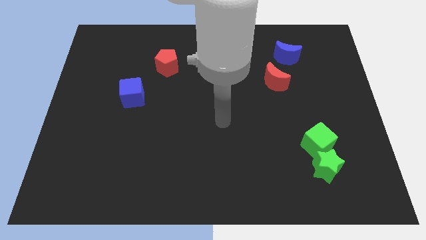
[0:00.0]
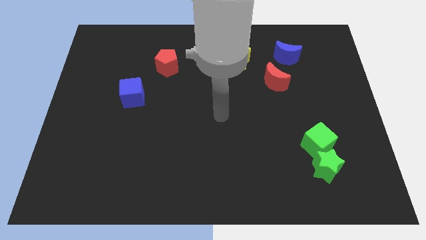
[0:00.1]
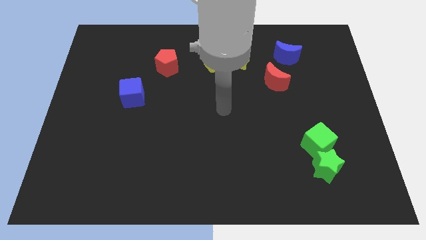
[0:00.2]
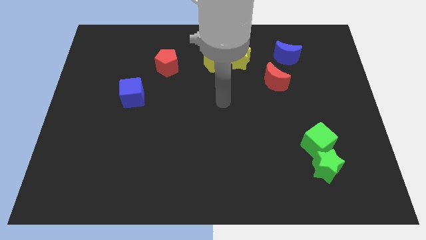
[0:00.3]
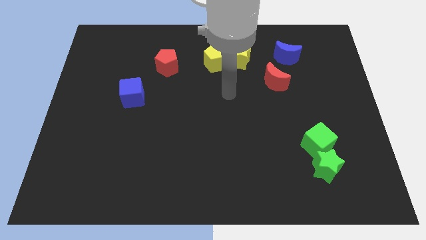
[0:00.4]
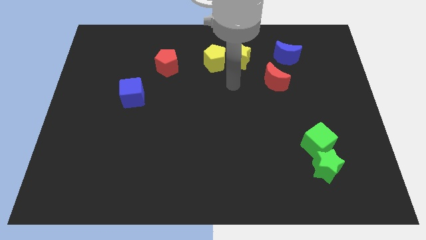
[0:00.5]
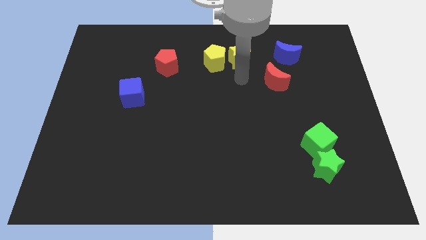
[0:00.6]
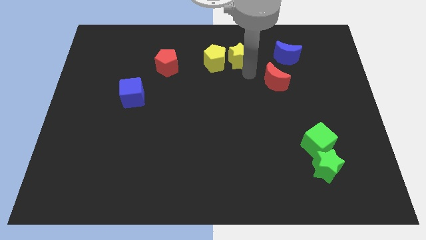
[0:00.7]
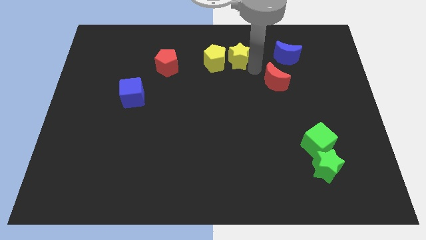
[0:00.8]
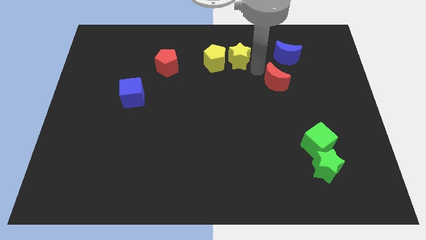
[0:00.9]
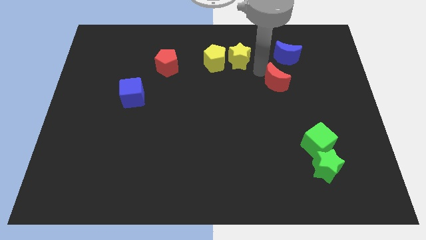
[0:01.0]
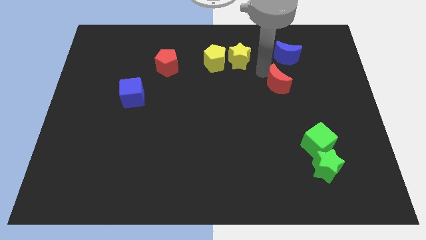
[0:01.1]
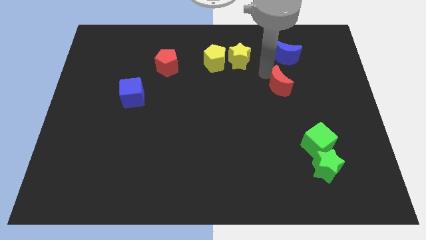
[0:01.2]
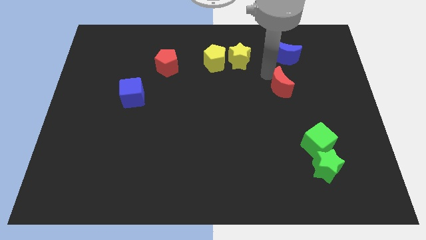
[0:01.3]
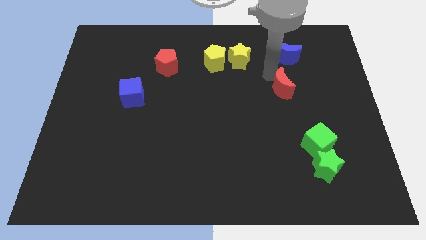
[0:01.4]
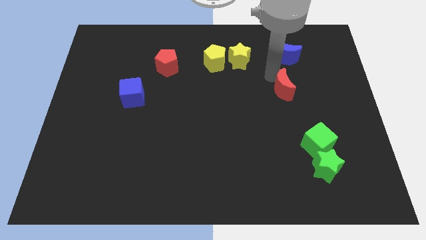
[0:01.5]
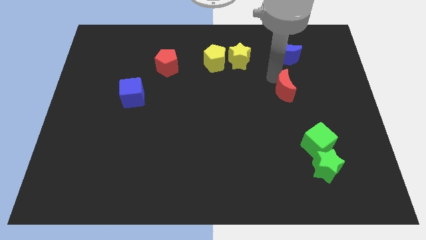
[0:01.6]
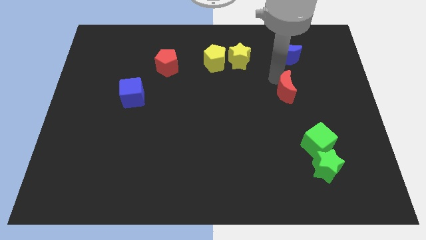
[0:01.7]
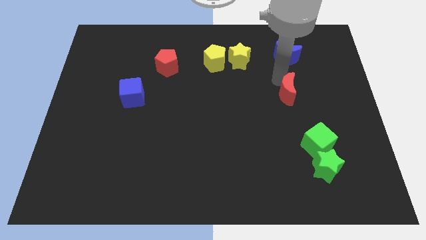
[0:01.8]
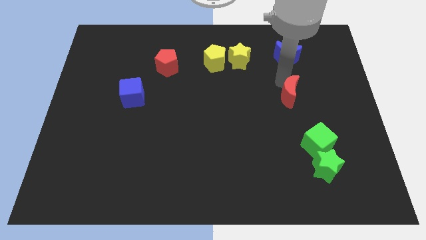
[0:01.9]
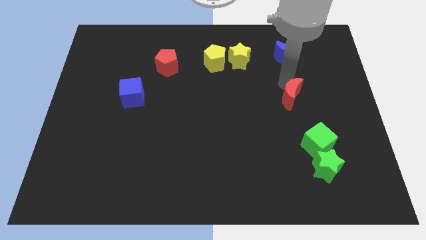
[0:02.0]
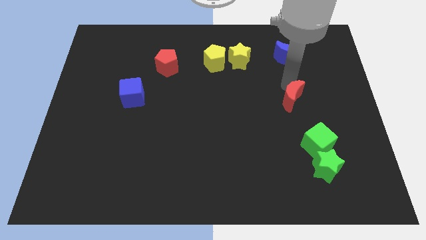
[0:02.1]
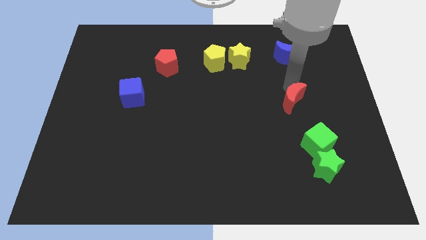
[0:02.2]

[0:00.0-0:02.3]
slide the red moon slightly diagonally down and right

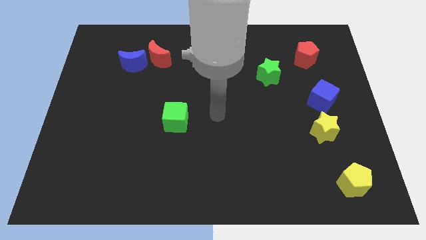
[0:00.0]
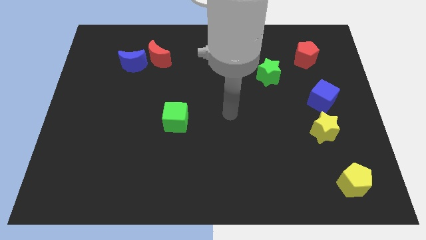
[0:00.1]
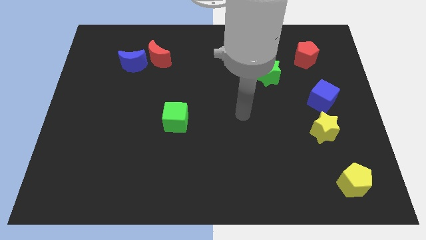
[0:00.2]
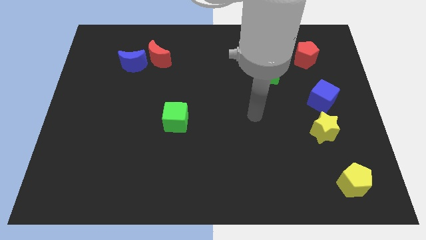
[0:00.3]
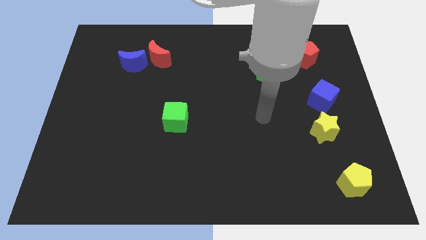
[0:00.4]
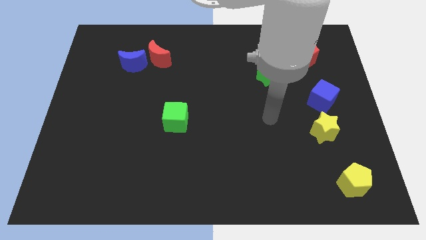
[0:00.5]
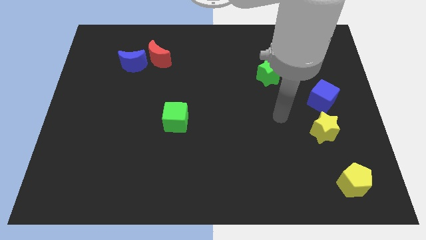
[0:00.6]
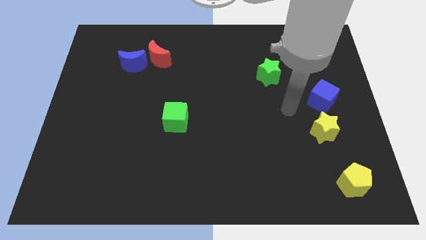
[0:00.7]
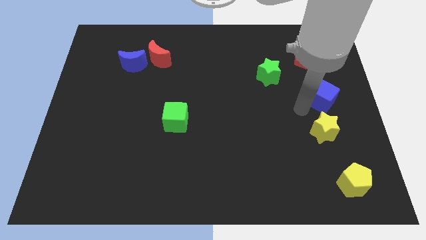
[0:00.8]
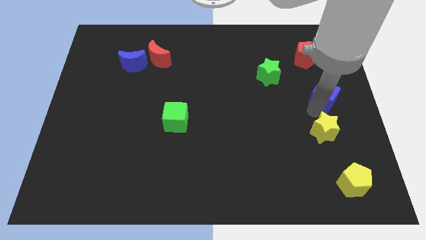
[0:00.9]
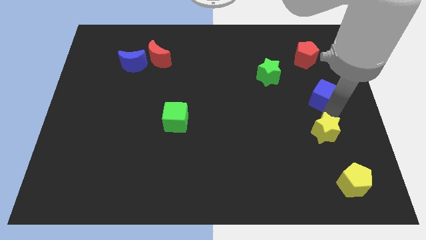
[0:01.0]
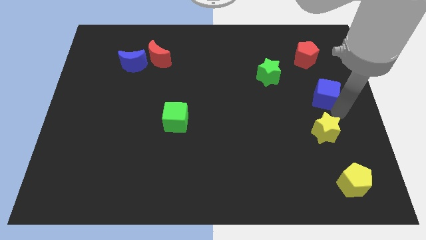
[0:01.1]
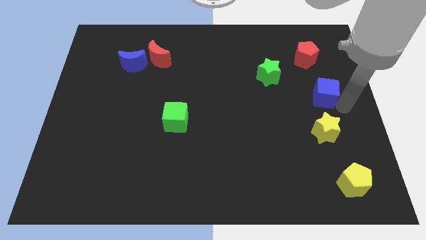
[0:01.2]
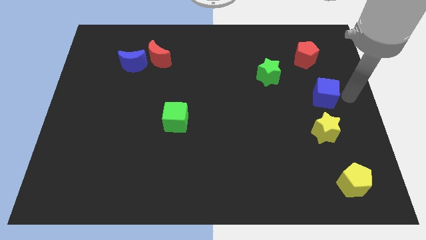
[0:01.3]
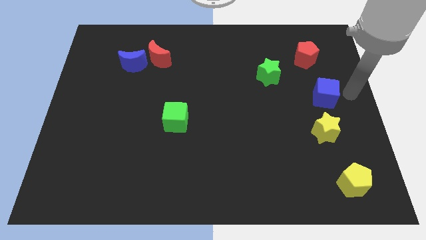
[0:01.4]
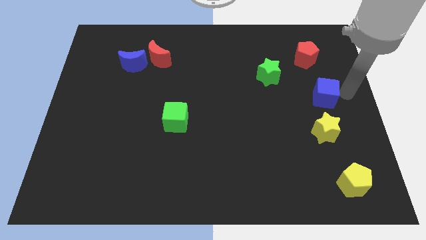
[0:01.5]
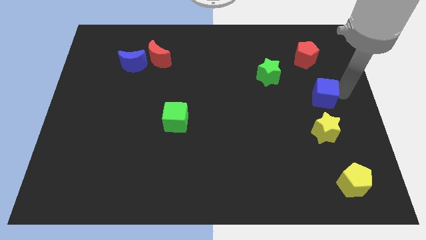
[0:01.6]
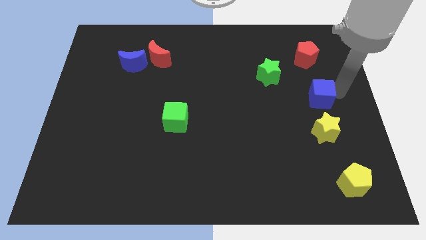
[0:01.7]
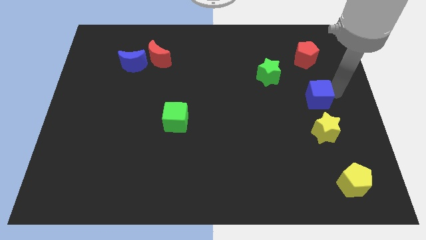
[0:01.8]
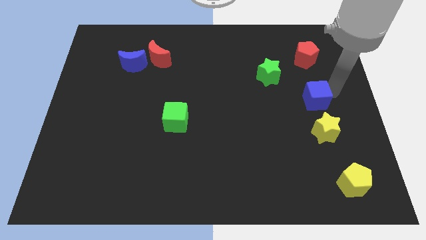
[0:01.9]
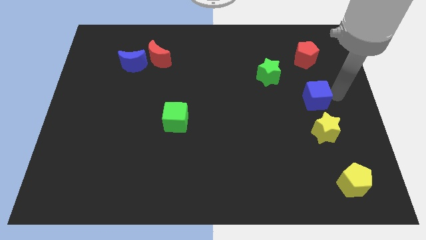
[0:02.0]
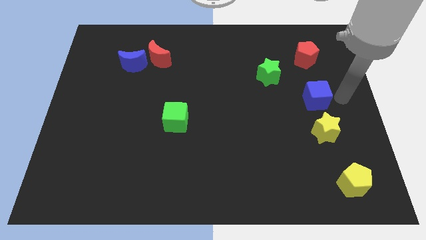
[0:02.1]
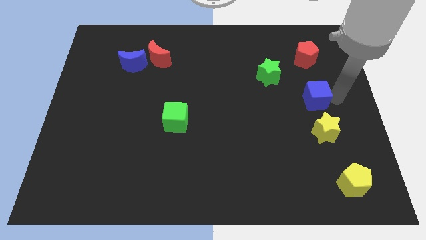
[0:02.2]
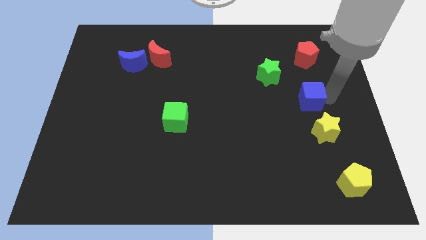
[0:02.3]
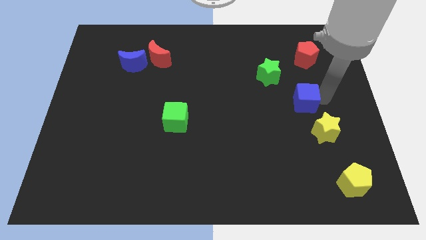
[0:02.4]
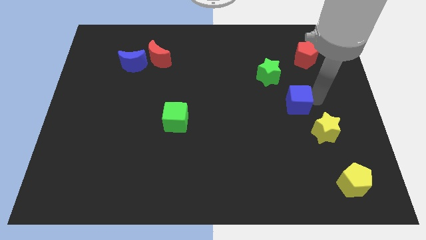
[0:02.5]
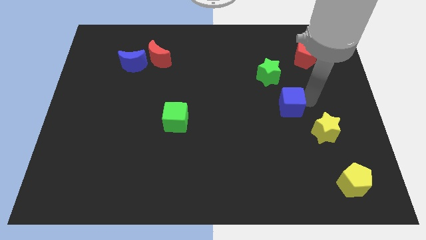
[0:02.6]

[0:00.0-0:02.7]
push the blue cube a bit to the left

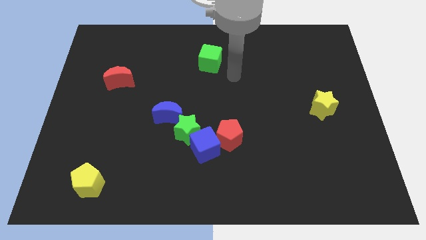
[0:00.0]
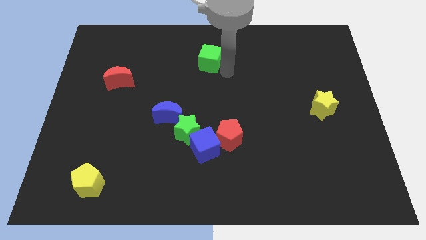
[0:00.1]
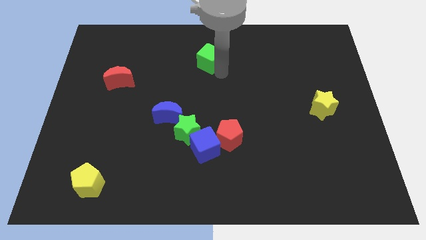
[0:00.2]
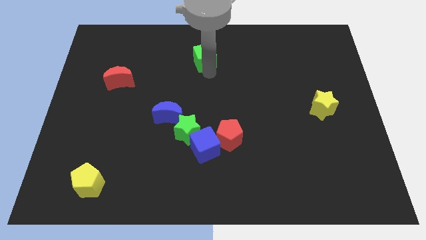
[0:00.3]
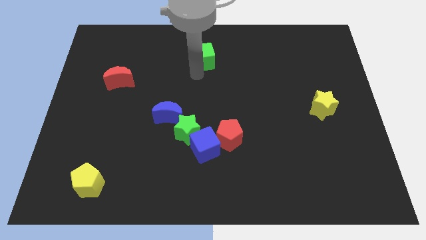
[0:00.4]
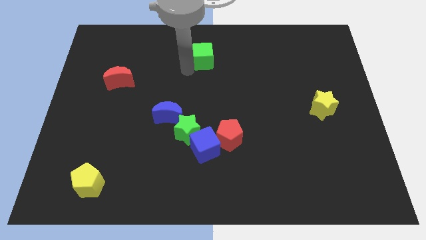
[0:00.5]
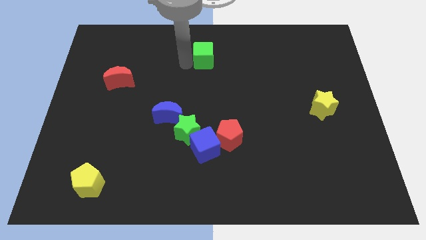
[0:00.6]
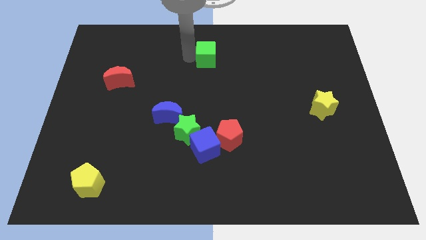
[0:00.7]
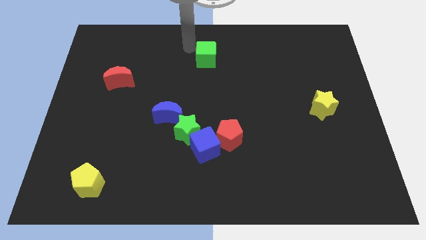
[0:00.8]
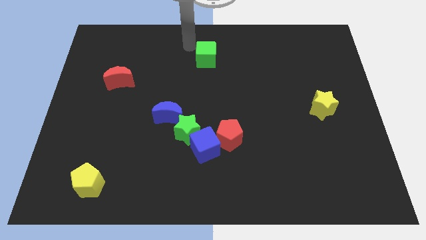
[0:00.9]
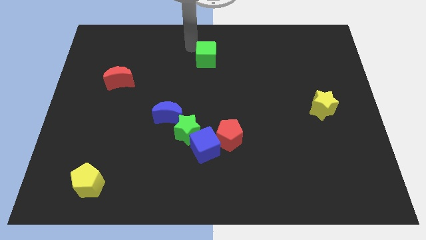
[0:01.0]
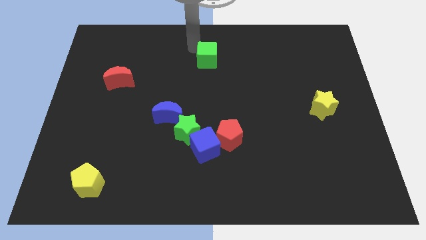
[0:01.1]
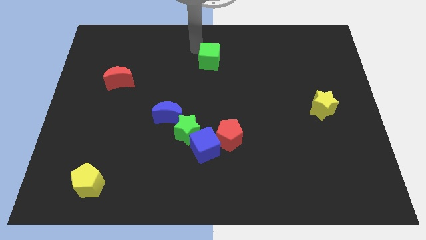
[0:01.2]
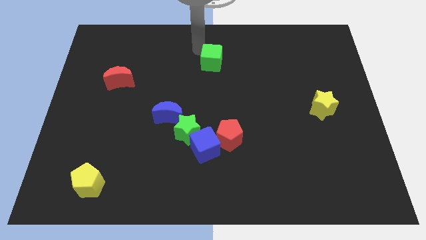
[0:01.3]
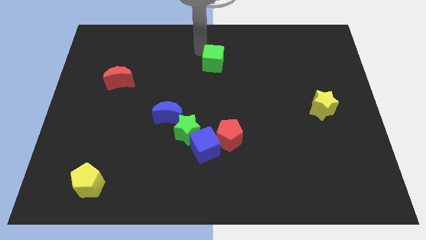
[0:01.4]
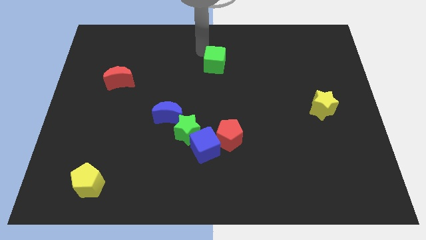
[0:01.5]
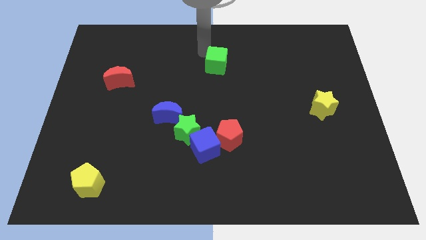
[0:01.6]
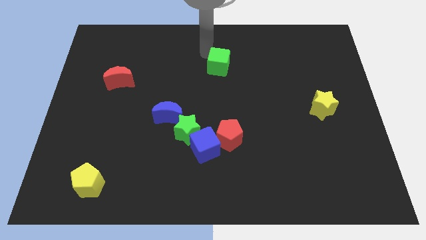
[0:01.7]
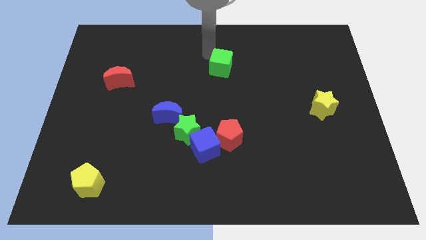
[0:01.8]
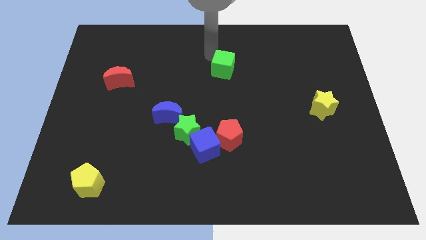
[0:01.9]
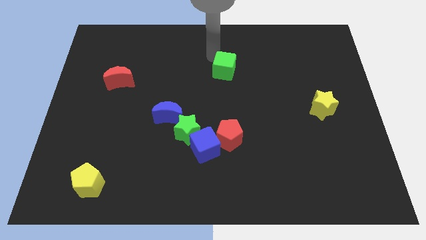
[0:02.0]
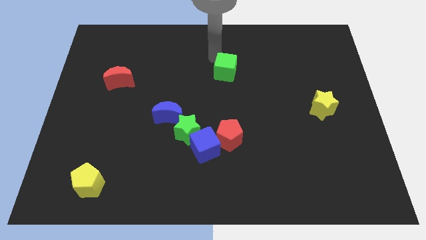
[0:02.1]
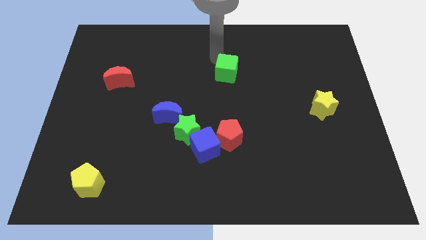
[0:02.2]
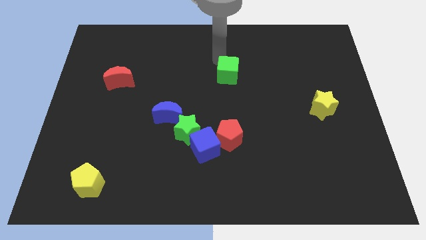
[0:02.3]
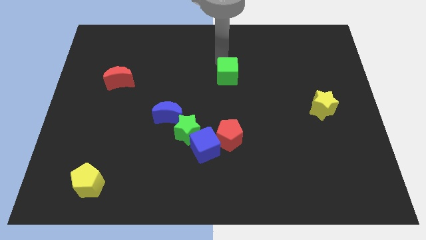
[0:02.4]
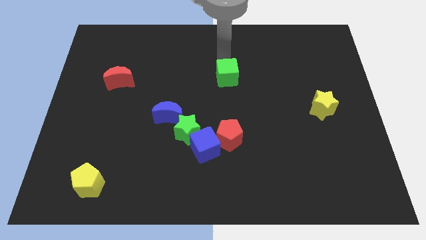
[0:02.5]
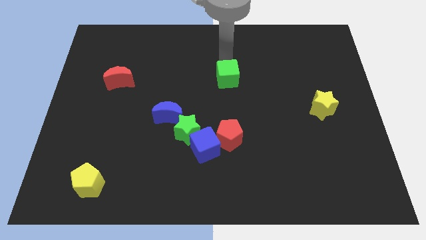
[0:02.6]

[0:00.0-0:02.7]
slide the green cube a bit down and then right
